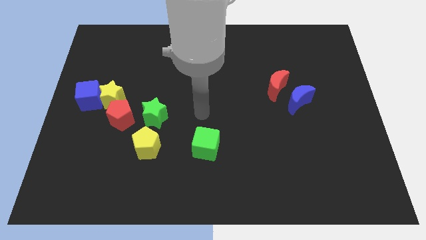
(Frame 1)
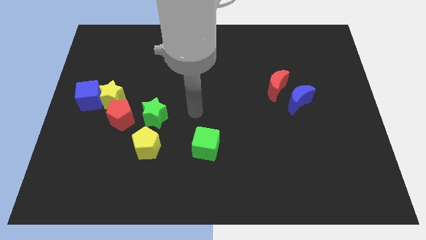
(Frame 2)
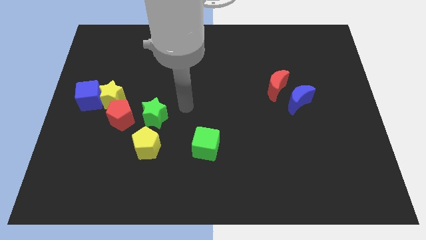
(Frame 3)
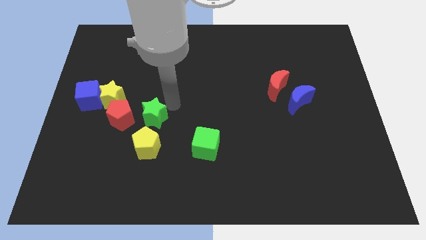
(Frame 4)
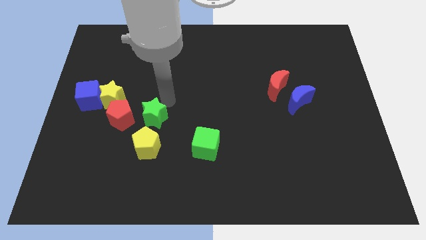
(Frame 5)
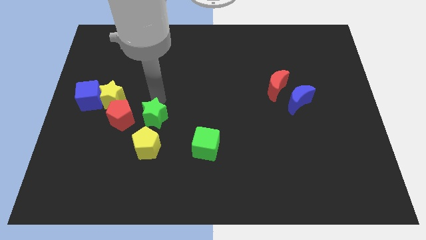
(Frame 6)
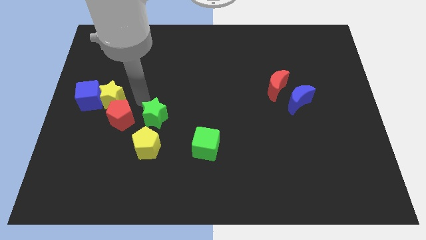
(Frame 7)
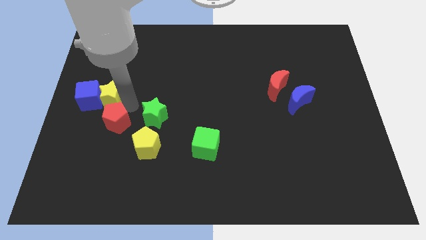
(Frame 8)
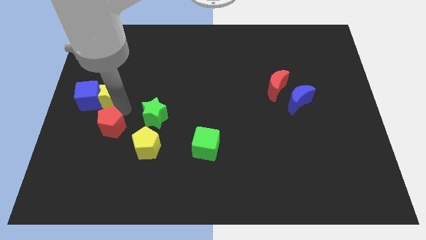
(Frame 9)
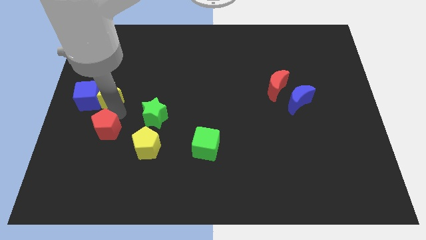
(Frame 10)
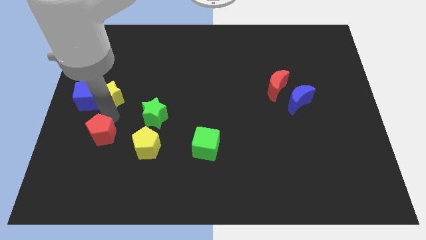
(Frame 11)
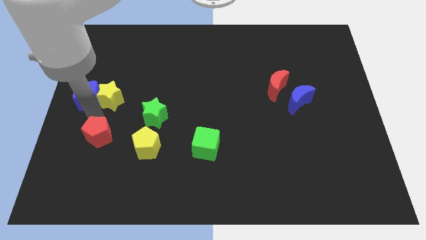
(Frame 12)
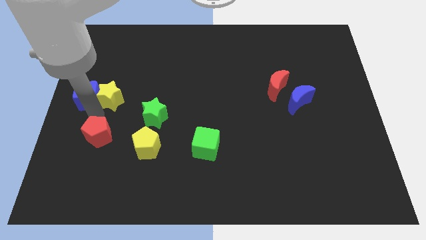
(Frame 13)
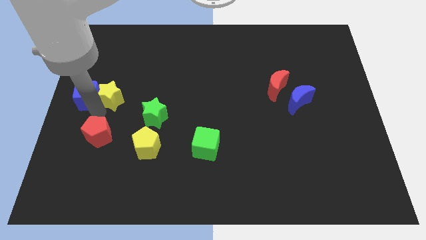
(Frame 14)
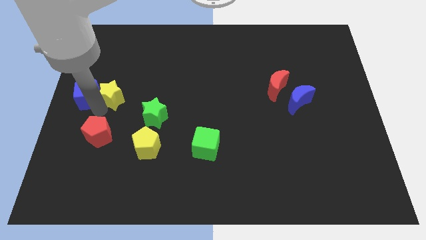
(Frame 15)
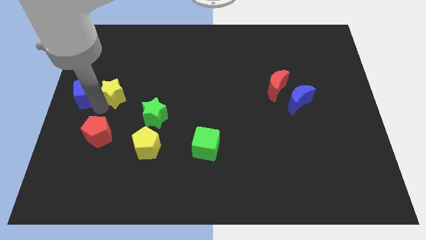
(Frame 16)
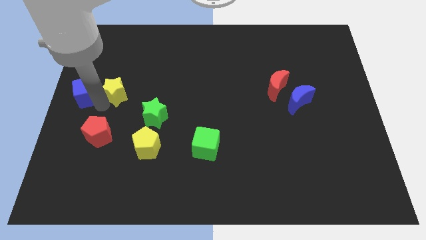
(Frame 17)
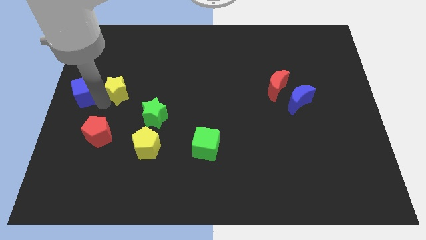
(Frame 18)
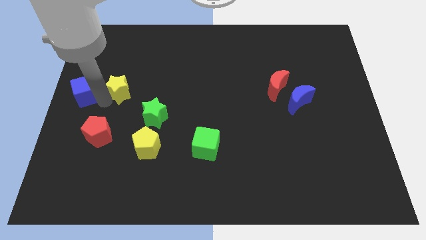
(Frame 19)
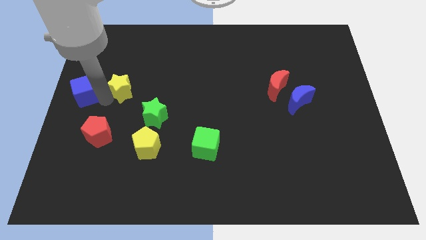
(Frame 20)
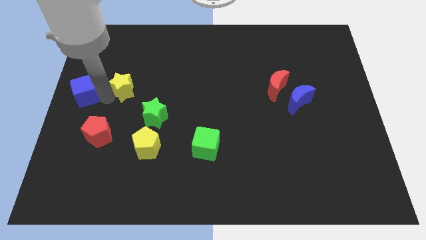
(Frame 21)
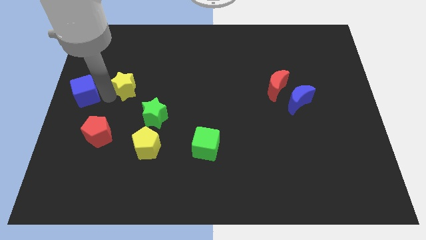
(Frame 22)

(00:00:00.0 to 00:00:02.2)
move the yellow star away from the blue cube and red pentagon

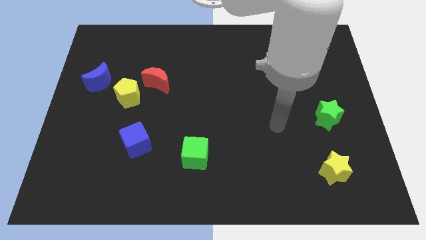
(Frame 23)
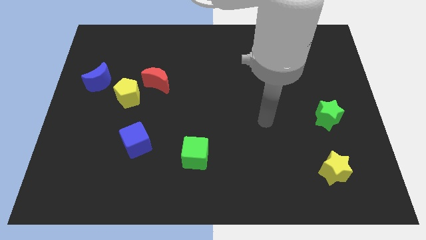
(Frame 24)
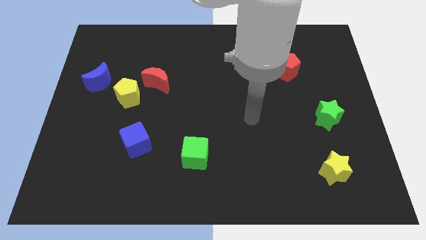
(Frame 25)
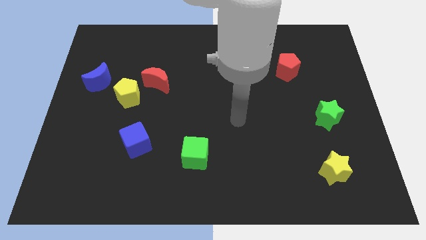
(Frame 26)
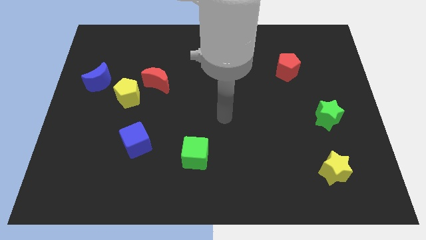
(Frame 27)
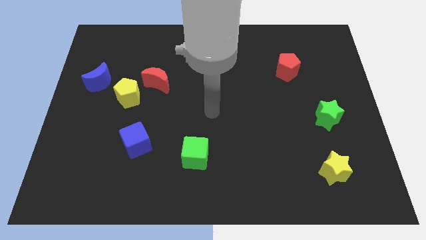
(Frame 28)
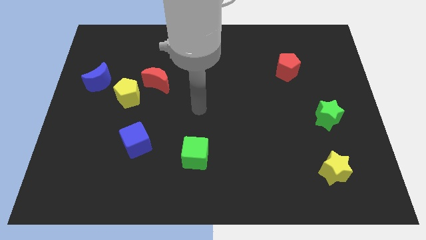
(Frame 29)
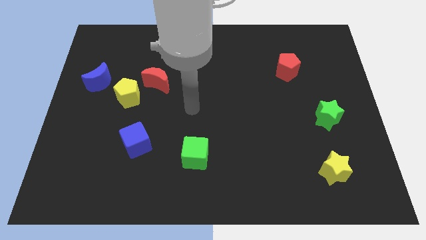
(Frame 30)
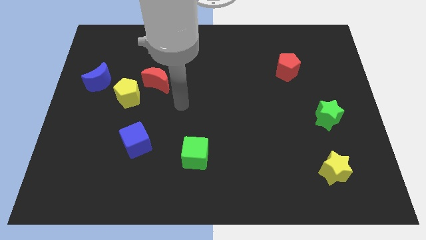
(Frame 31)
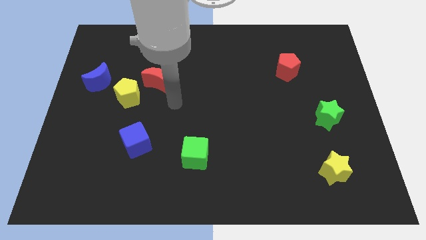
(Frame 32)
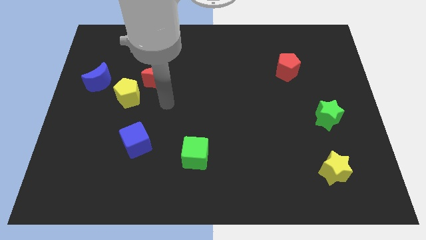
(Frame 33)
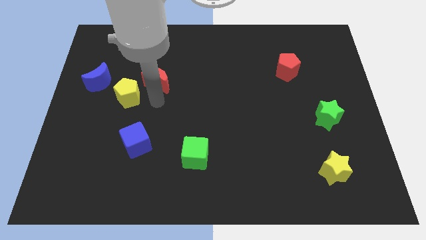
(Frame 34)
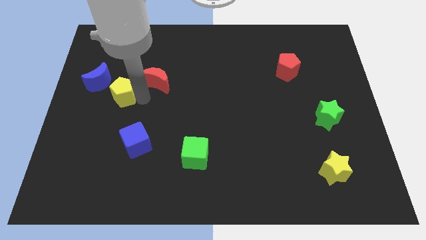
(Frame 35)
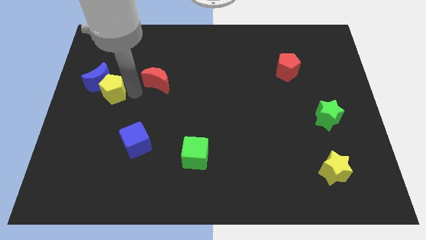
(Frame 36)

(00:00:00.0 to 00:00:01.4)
separate the red moon from the yellow pentagon

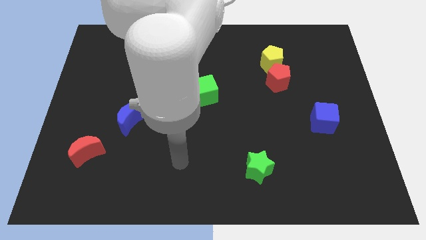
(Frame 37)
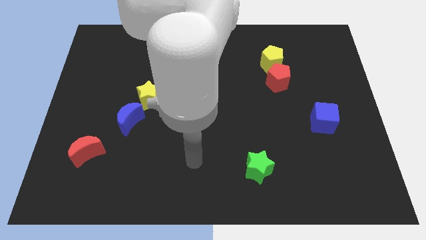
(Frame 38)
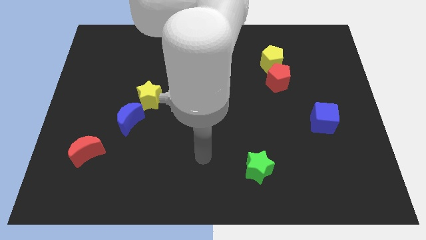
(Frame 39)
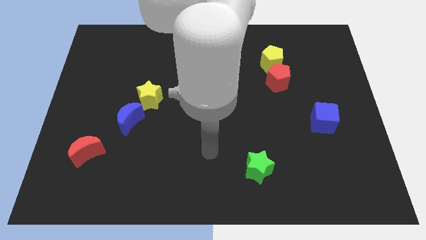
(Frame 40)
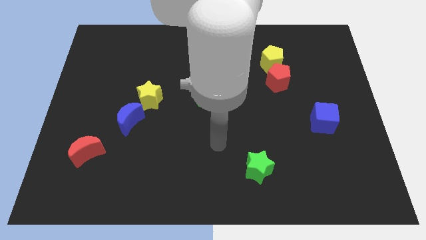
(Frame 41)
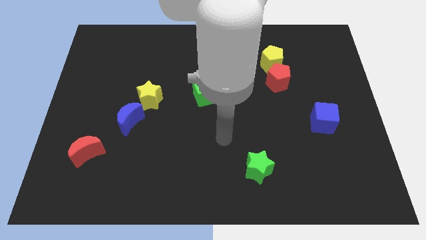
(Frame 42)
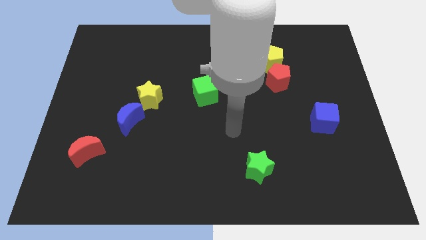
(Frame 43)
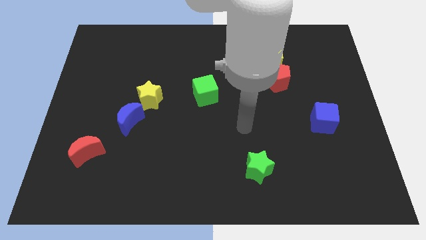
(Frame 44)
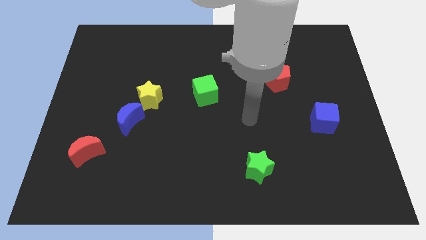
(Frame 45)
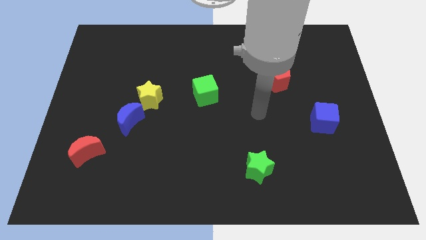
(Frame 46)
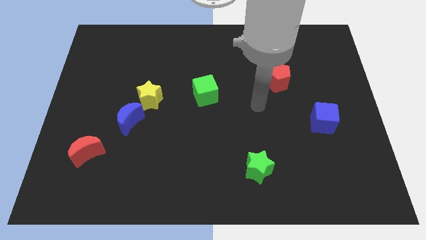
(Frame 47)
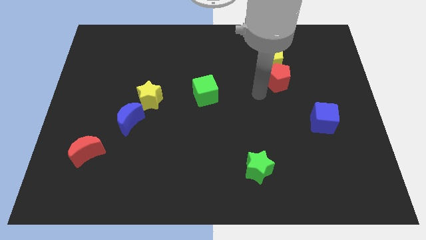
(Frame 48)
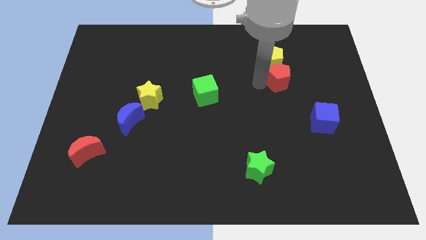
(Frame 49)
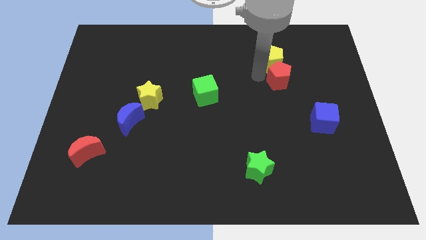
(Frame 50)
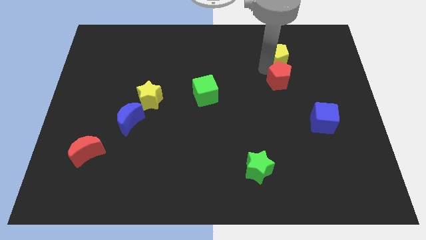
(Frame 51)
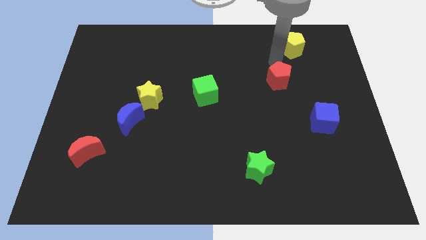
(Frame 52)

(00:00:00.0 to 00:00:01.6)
pull the red pentagon apart from the yellow pentagon

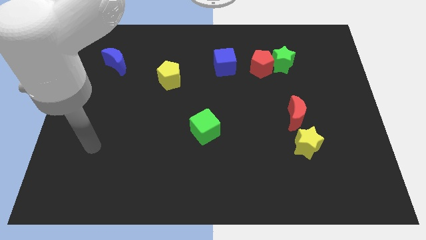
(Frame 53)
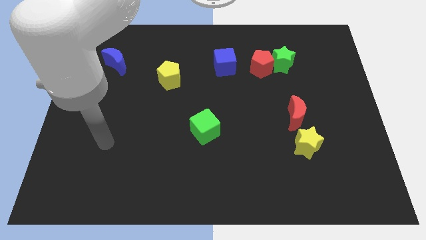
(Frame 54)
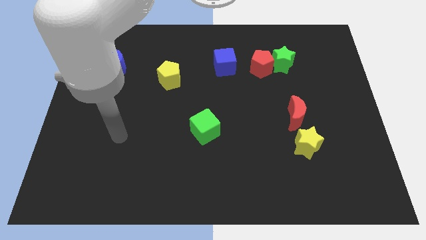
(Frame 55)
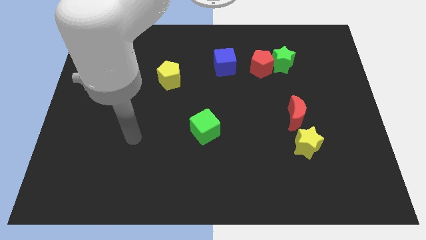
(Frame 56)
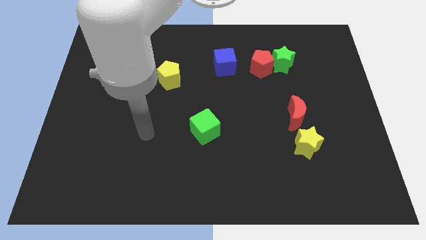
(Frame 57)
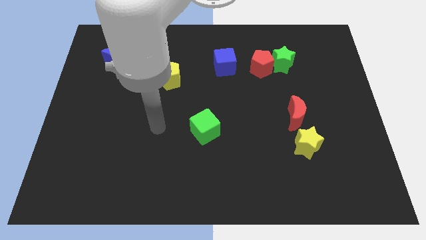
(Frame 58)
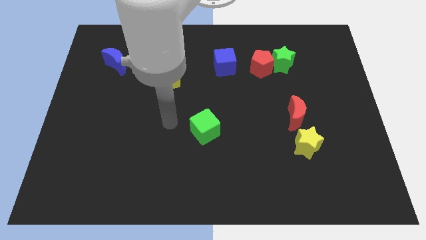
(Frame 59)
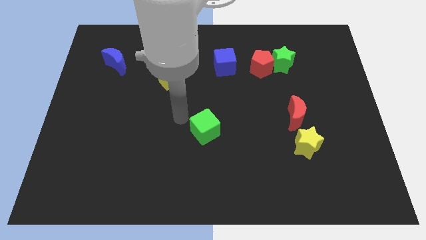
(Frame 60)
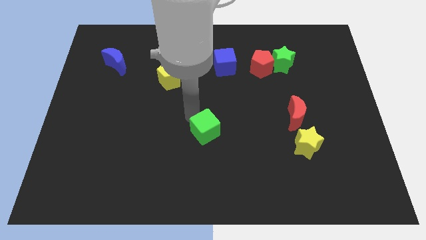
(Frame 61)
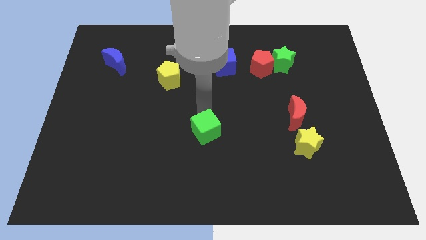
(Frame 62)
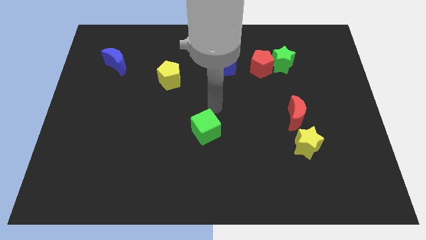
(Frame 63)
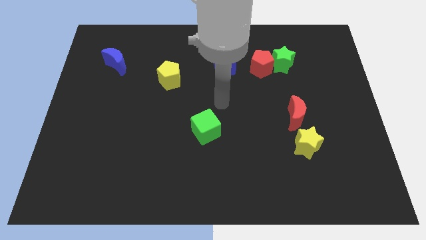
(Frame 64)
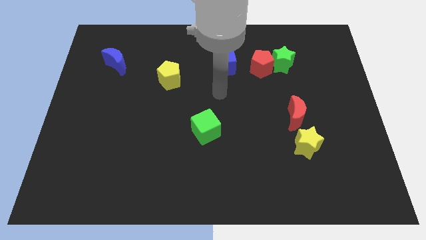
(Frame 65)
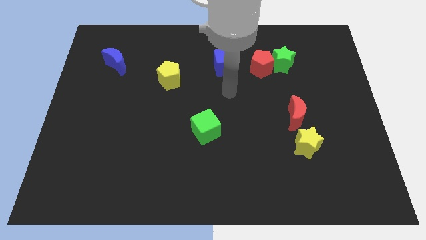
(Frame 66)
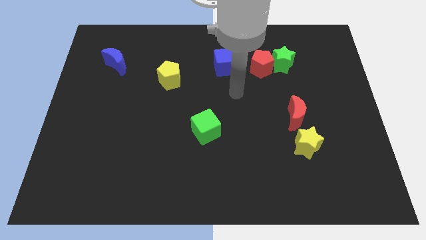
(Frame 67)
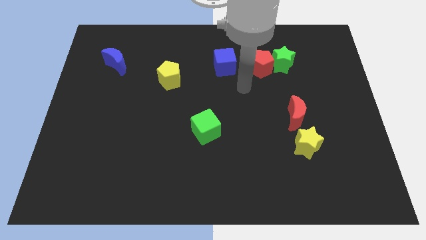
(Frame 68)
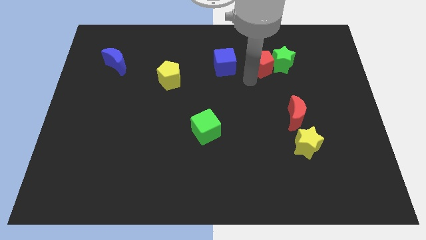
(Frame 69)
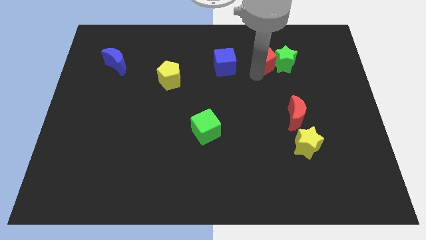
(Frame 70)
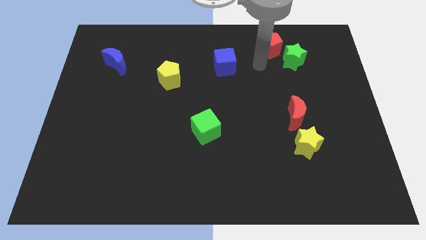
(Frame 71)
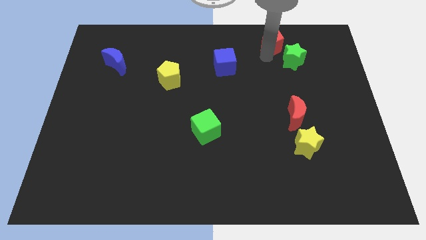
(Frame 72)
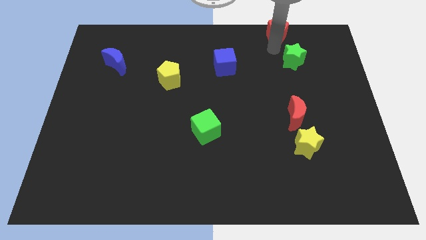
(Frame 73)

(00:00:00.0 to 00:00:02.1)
separate the green star from the red pentagon

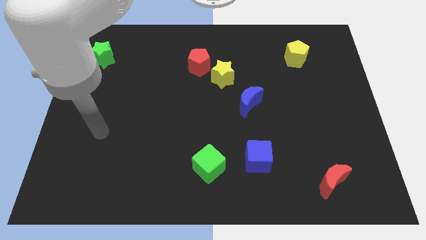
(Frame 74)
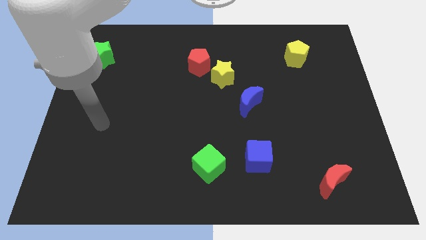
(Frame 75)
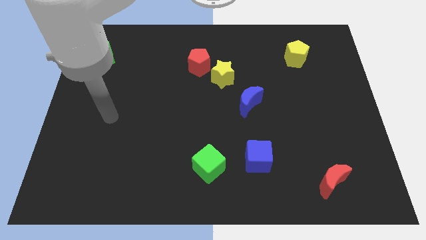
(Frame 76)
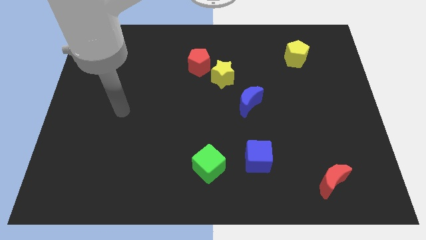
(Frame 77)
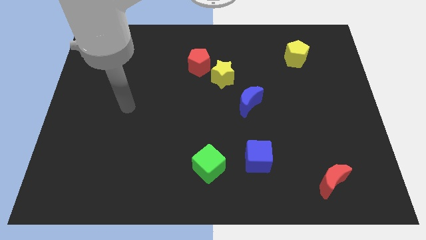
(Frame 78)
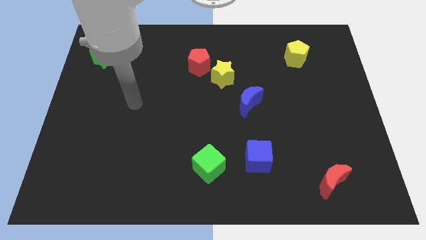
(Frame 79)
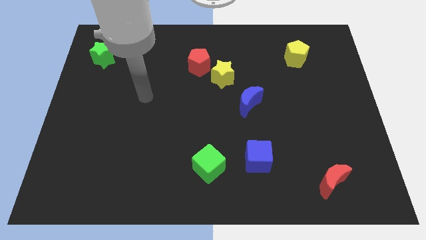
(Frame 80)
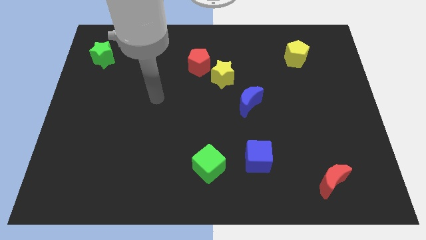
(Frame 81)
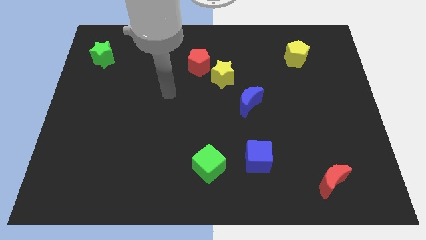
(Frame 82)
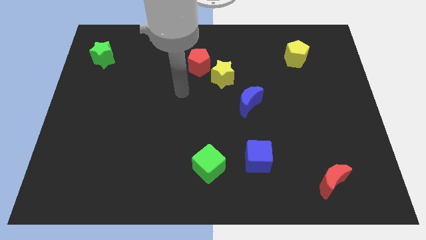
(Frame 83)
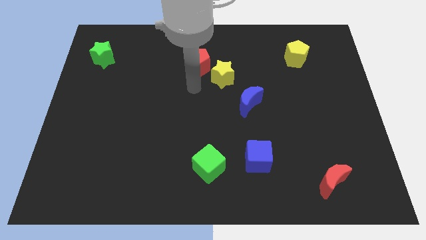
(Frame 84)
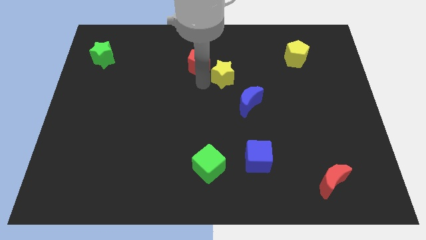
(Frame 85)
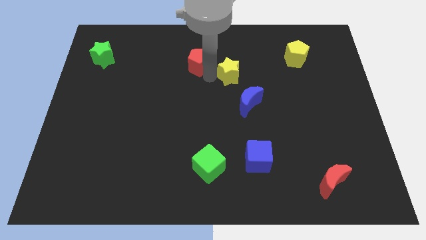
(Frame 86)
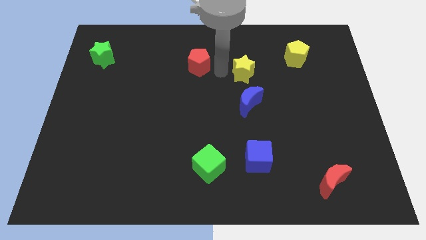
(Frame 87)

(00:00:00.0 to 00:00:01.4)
separate the red pentagon from the yellow star

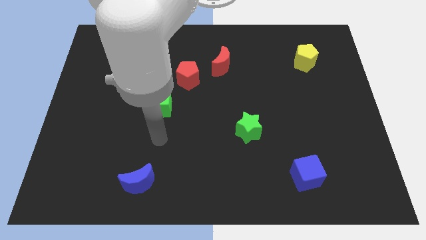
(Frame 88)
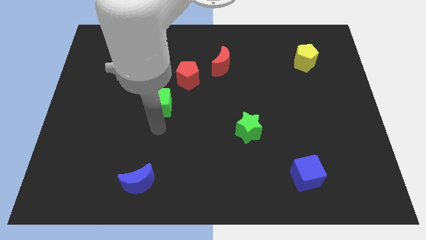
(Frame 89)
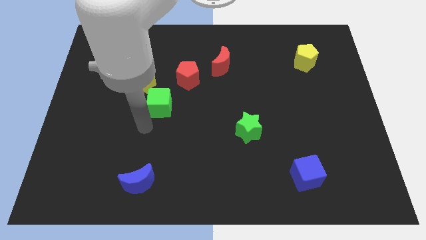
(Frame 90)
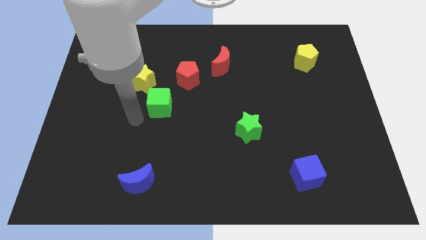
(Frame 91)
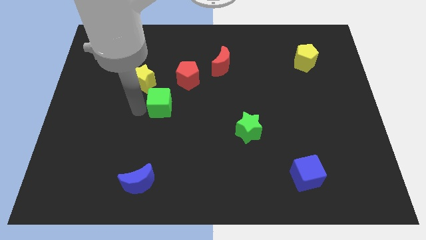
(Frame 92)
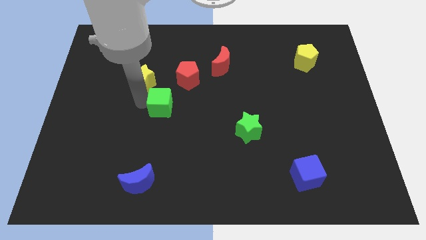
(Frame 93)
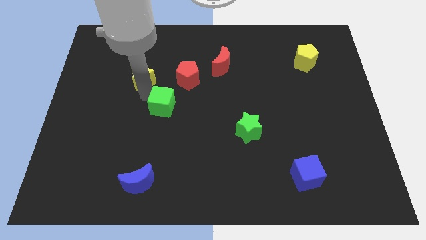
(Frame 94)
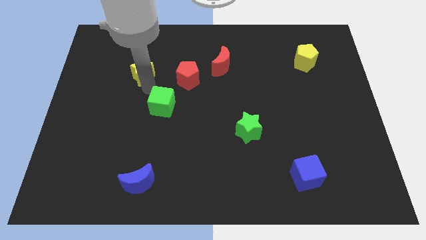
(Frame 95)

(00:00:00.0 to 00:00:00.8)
separate the green cube from the yellow star
